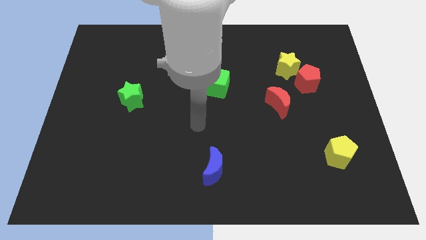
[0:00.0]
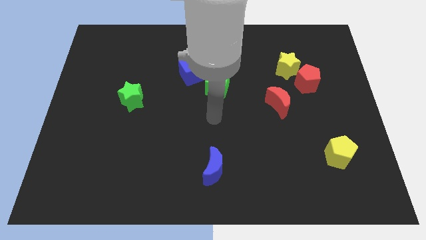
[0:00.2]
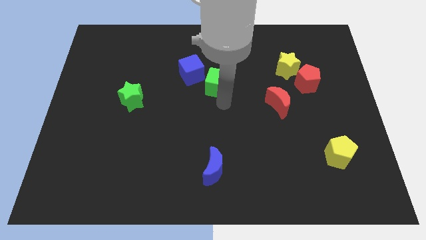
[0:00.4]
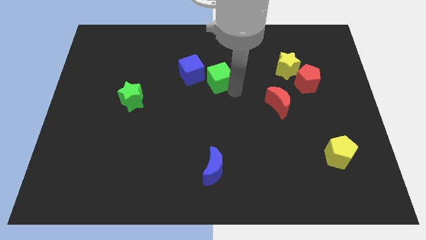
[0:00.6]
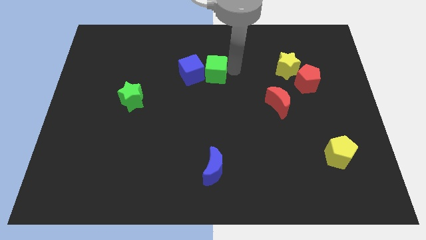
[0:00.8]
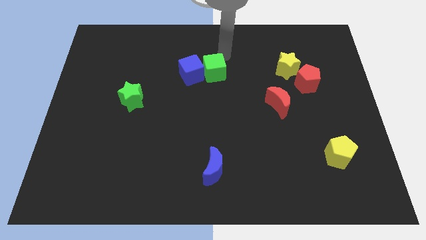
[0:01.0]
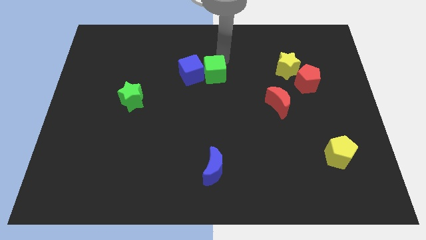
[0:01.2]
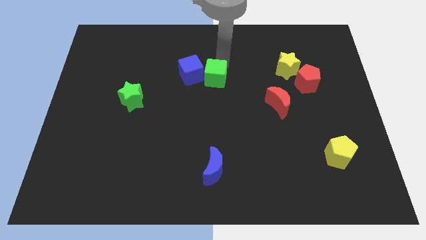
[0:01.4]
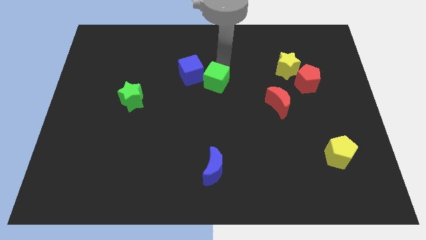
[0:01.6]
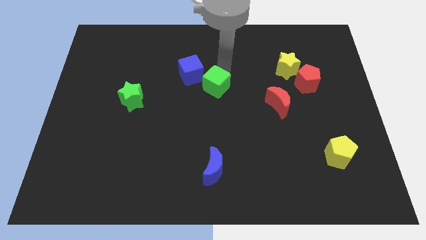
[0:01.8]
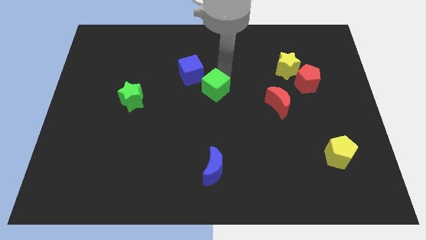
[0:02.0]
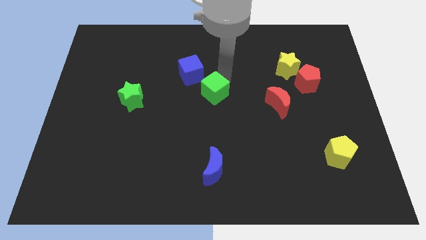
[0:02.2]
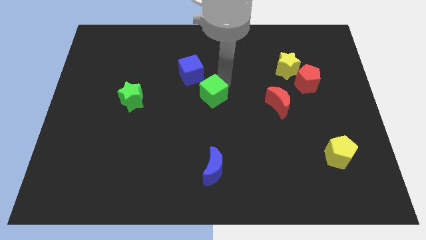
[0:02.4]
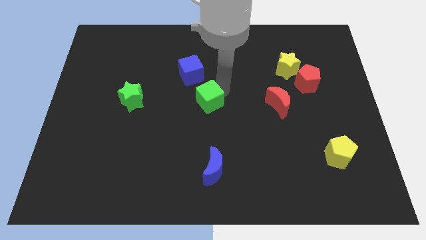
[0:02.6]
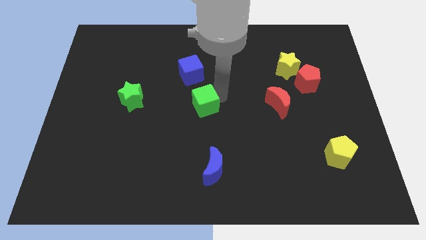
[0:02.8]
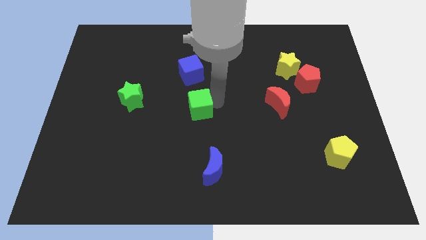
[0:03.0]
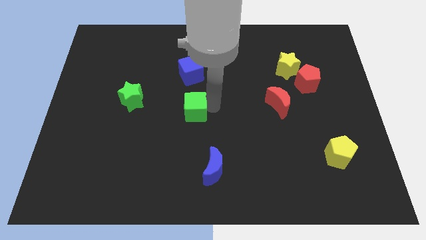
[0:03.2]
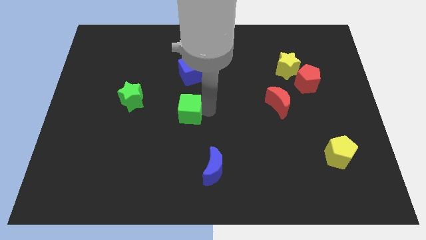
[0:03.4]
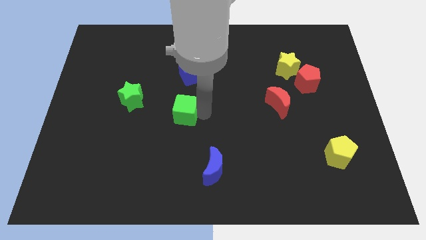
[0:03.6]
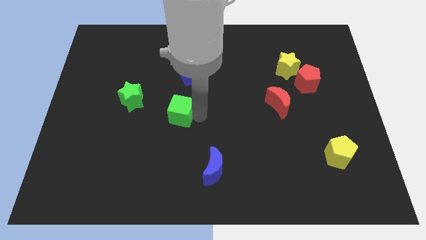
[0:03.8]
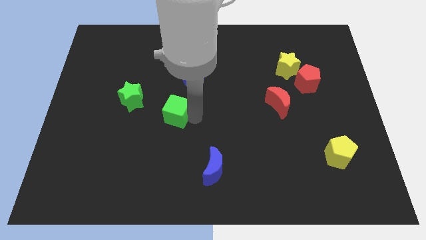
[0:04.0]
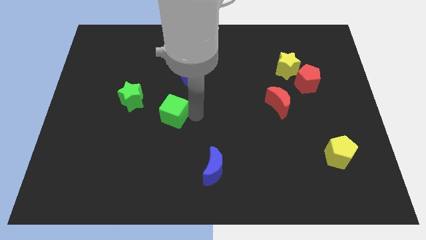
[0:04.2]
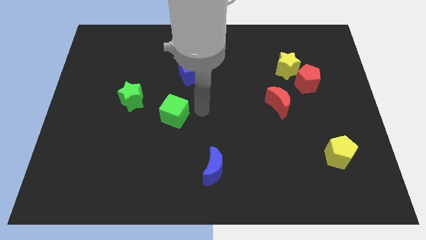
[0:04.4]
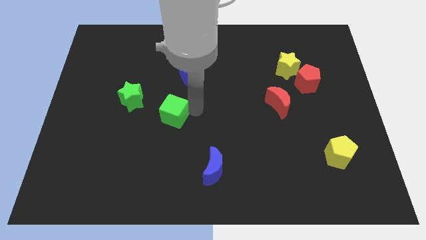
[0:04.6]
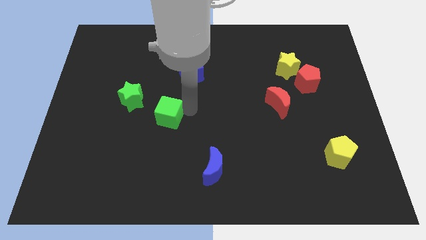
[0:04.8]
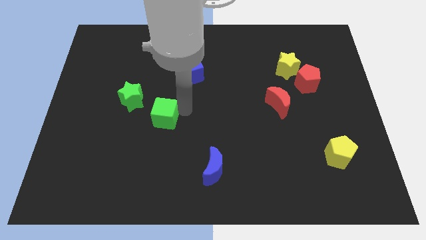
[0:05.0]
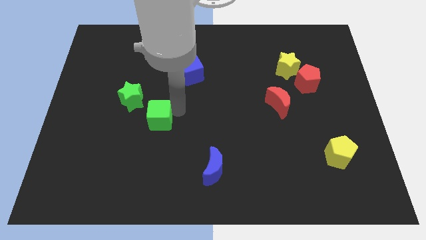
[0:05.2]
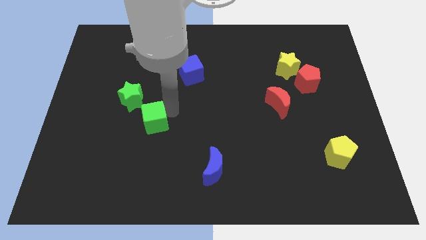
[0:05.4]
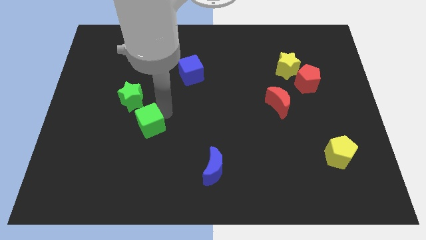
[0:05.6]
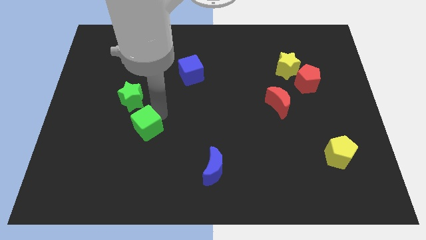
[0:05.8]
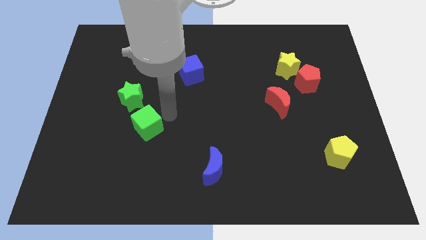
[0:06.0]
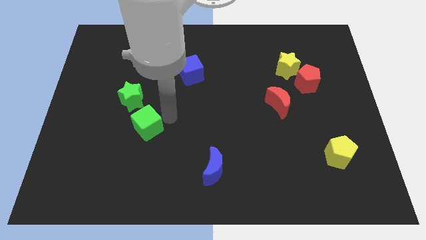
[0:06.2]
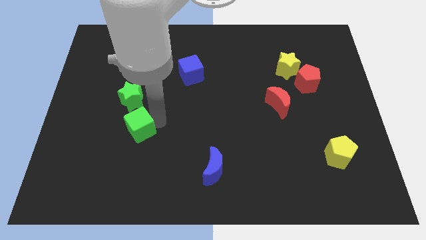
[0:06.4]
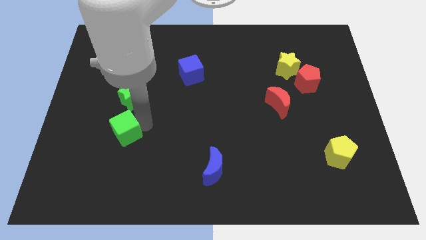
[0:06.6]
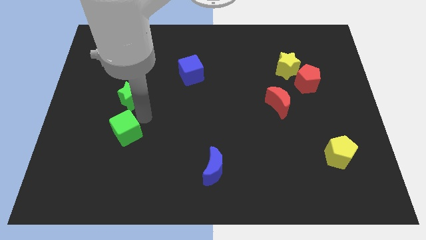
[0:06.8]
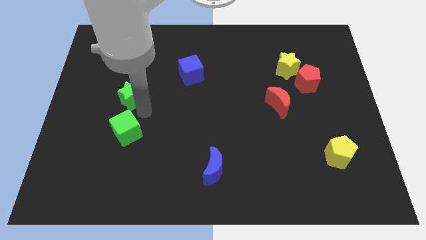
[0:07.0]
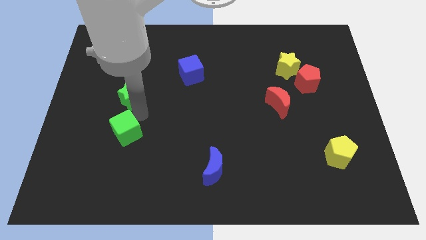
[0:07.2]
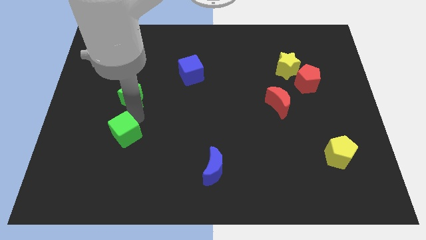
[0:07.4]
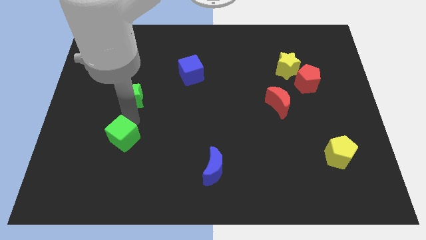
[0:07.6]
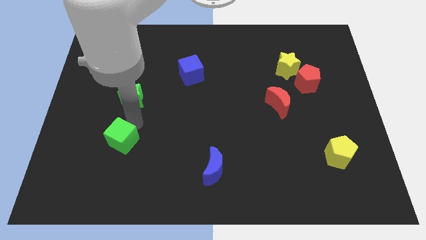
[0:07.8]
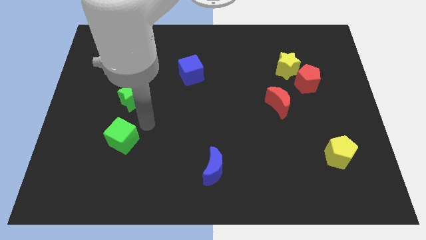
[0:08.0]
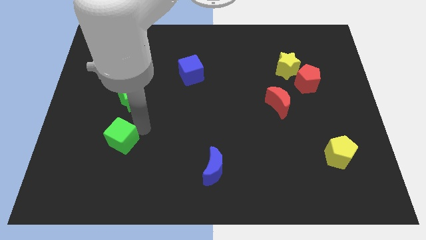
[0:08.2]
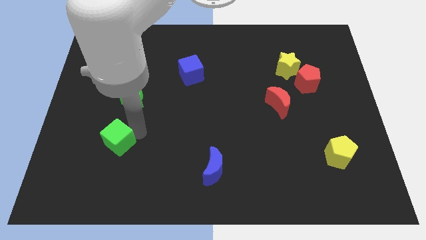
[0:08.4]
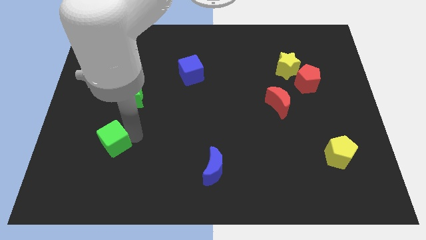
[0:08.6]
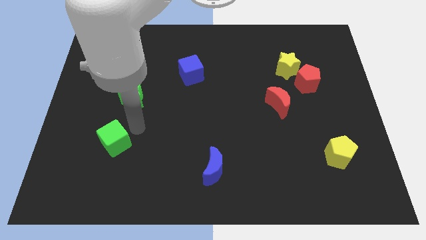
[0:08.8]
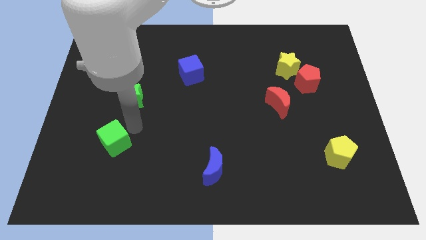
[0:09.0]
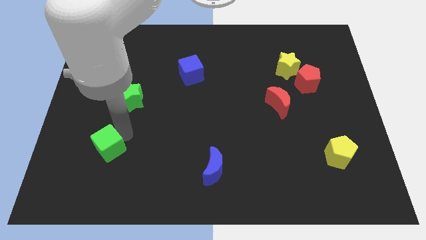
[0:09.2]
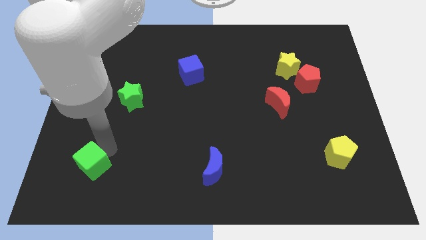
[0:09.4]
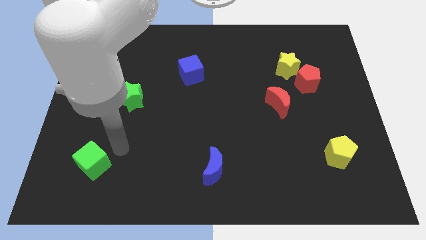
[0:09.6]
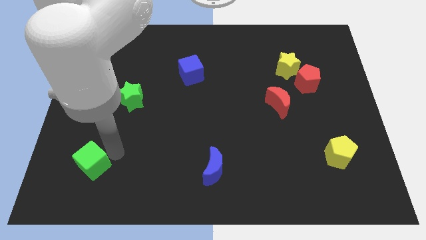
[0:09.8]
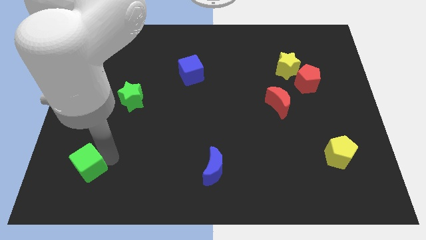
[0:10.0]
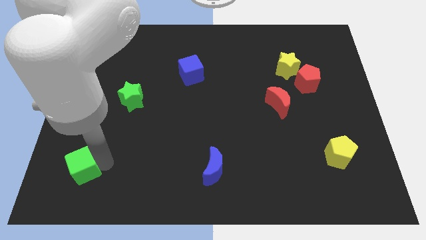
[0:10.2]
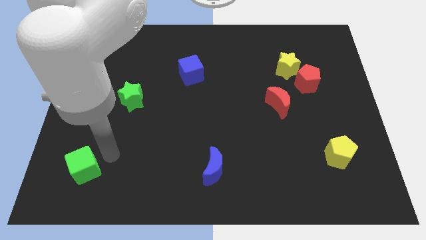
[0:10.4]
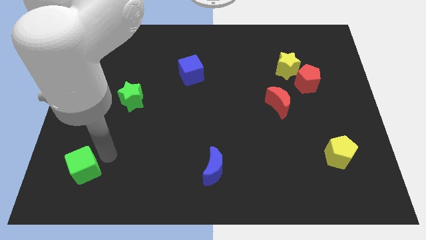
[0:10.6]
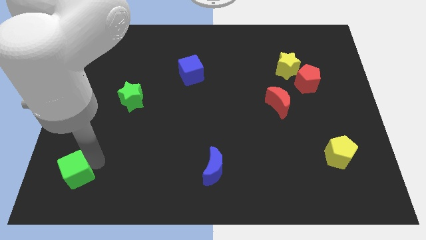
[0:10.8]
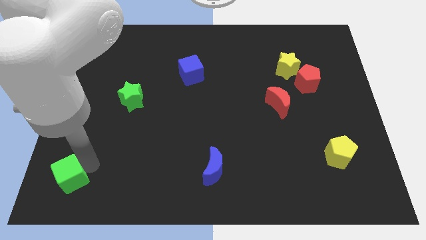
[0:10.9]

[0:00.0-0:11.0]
move the green cube to the lower left corner
